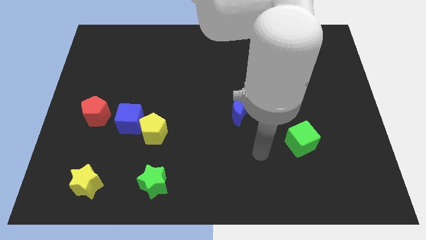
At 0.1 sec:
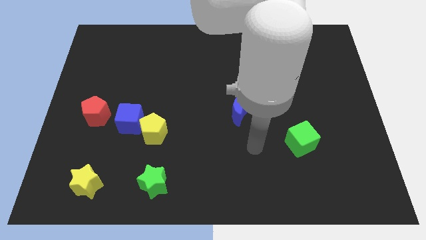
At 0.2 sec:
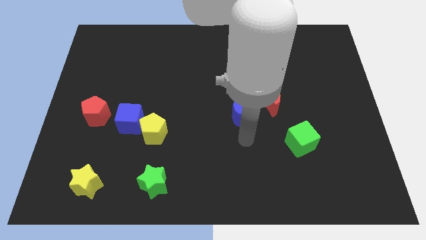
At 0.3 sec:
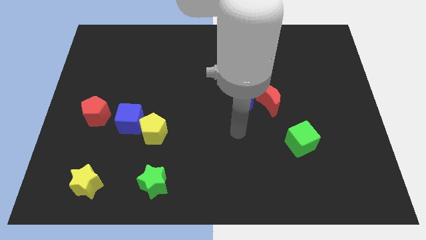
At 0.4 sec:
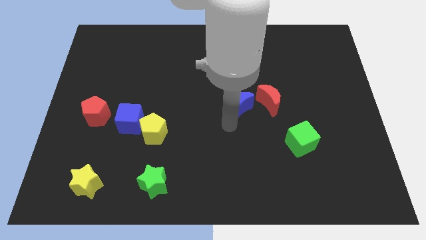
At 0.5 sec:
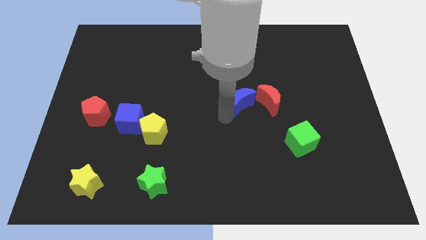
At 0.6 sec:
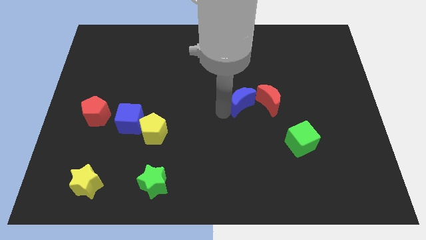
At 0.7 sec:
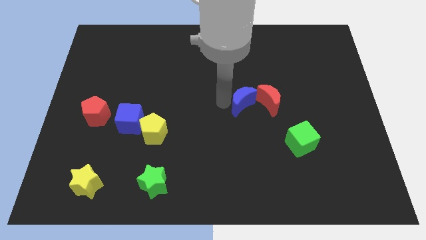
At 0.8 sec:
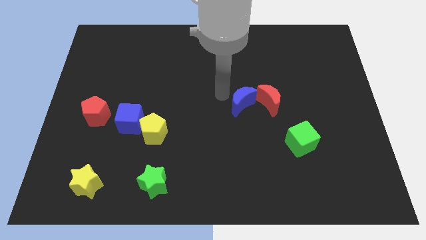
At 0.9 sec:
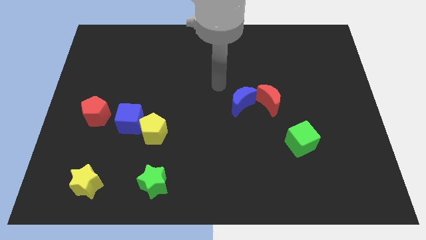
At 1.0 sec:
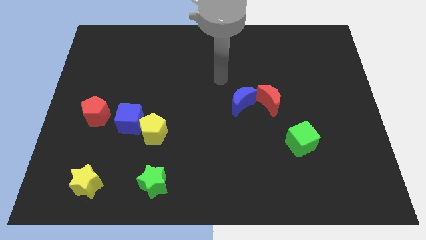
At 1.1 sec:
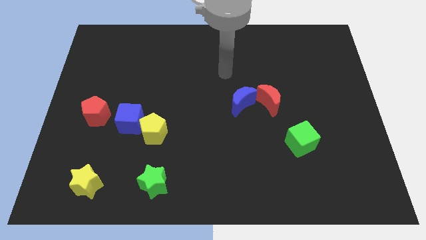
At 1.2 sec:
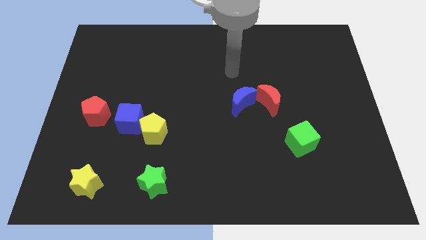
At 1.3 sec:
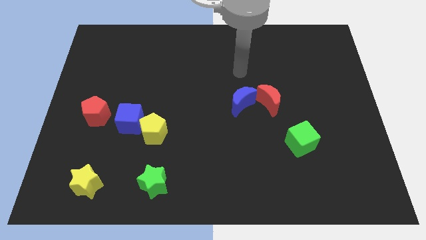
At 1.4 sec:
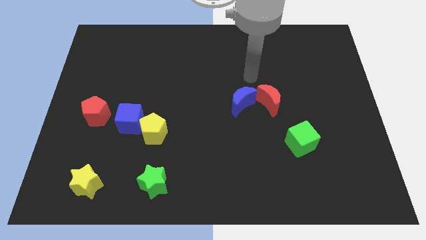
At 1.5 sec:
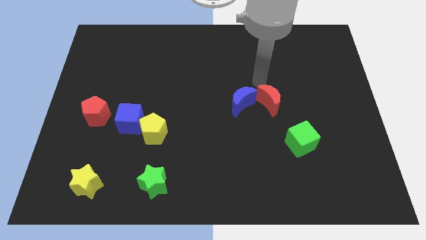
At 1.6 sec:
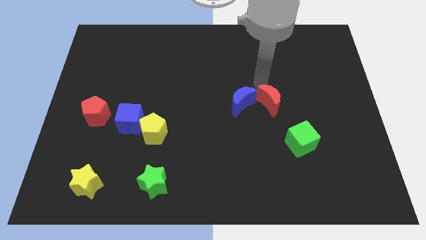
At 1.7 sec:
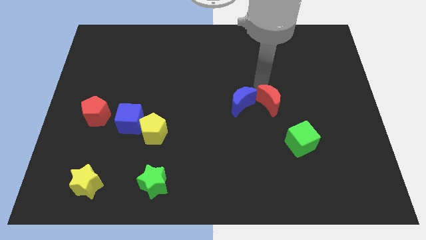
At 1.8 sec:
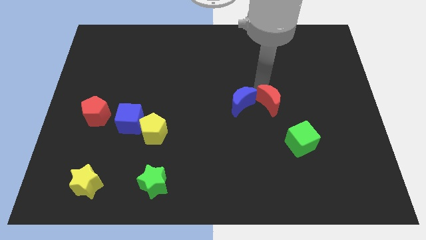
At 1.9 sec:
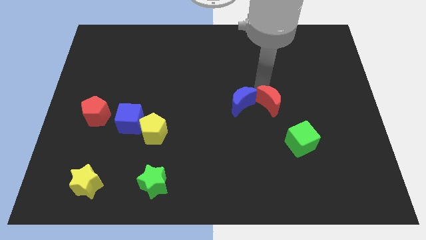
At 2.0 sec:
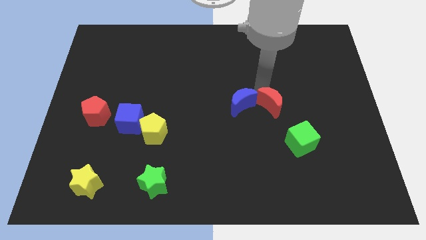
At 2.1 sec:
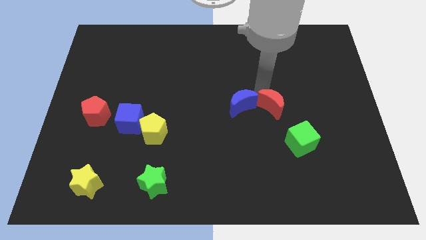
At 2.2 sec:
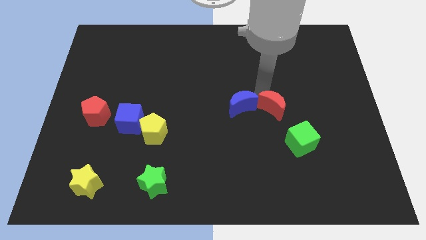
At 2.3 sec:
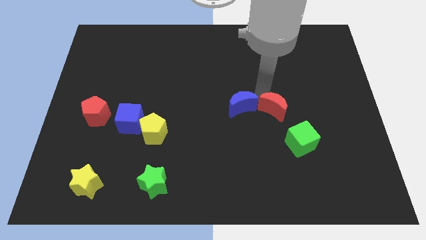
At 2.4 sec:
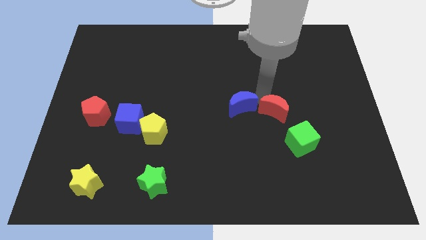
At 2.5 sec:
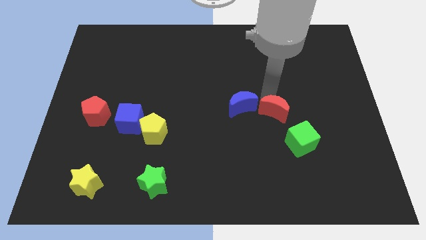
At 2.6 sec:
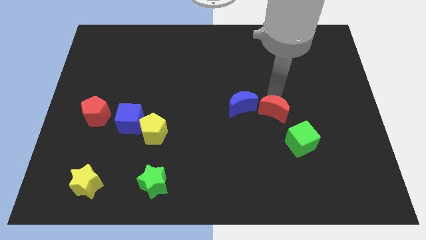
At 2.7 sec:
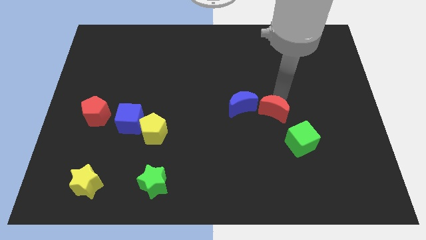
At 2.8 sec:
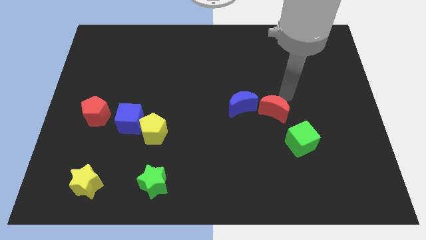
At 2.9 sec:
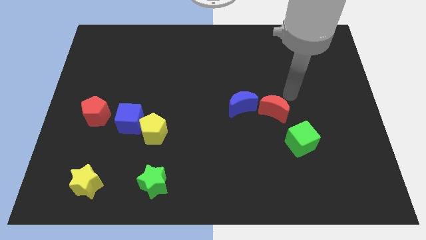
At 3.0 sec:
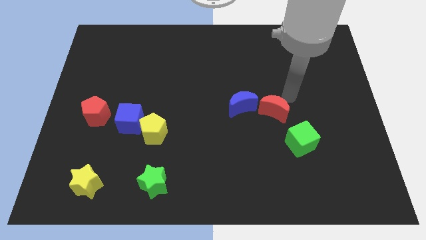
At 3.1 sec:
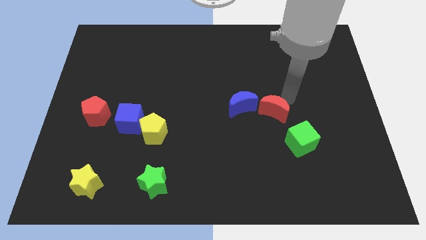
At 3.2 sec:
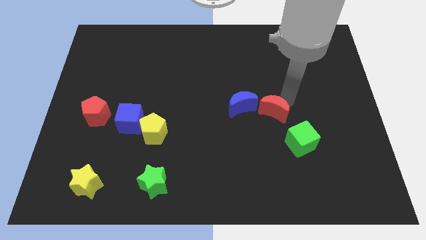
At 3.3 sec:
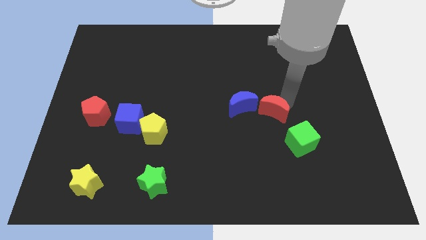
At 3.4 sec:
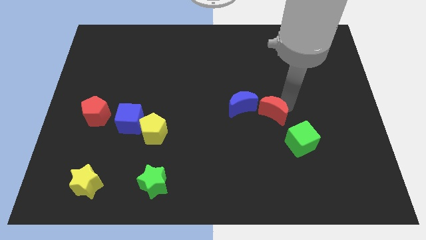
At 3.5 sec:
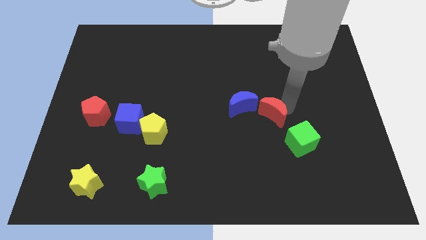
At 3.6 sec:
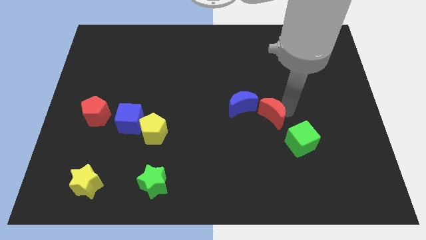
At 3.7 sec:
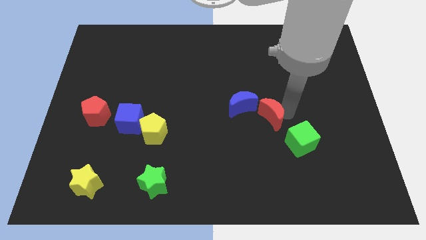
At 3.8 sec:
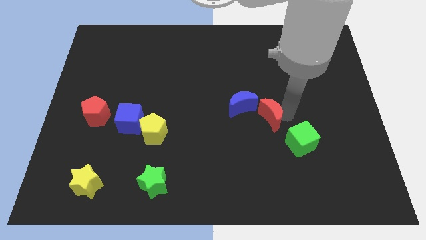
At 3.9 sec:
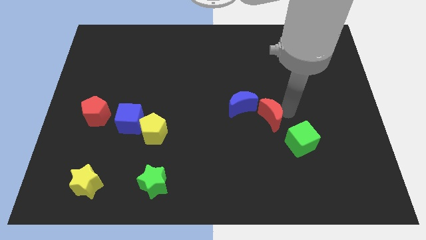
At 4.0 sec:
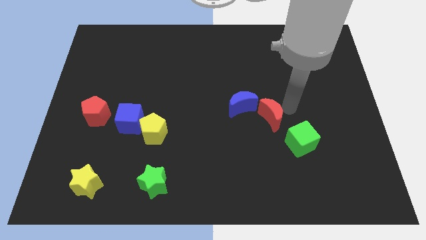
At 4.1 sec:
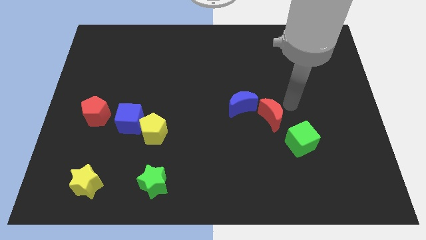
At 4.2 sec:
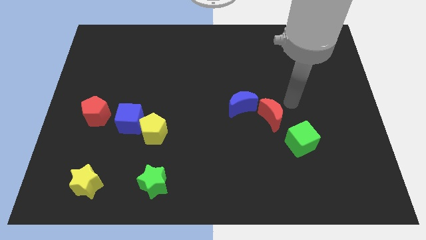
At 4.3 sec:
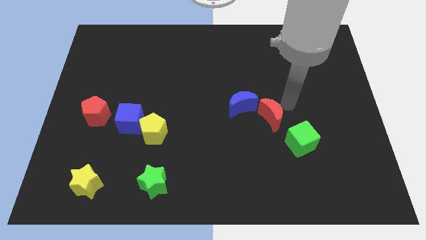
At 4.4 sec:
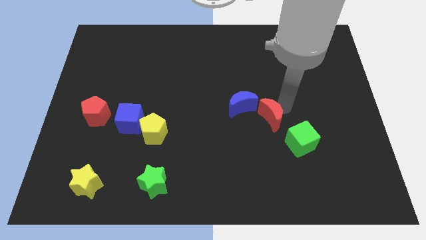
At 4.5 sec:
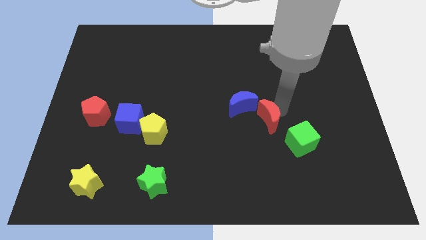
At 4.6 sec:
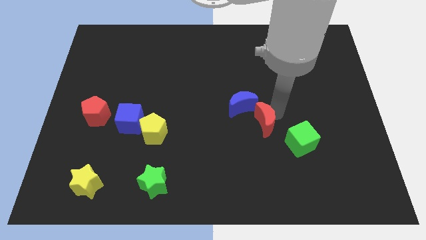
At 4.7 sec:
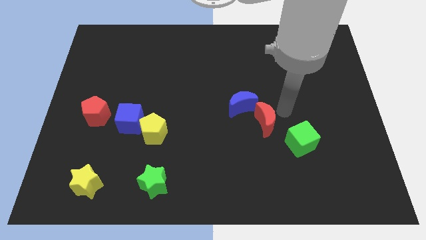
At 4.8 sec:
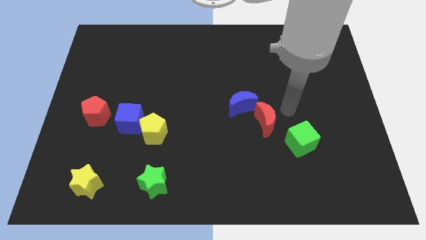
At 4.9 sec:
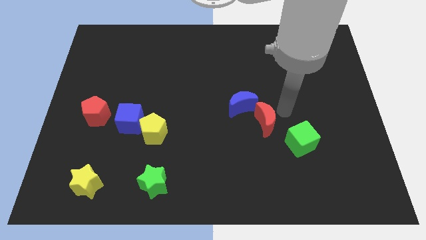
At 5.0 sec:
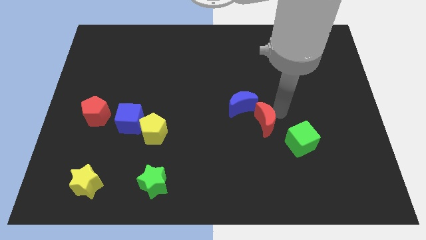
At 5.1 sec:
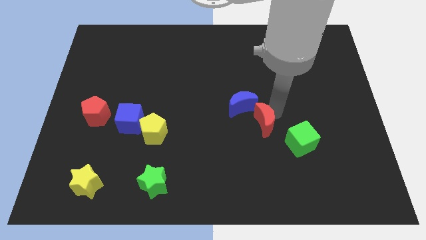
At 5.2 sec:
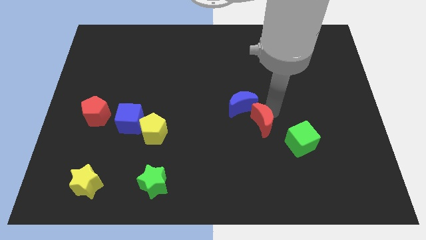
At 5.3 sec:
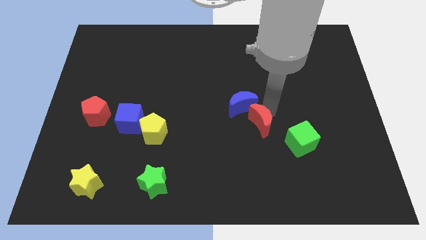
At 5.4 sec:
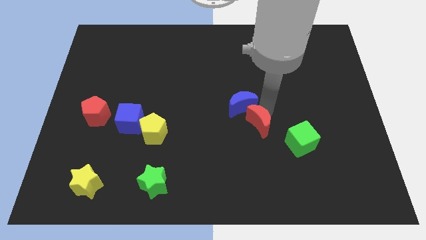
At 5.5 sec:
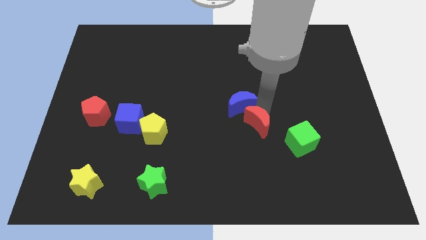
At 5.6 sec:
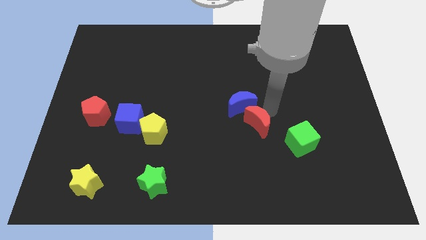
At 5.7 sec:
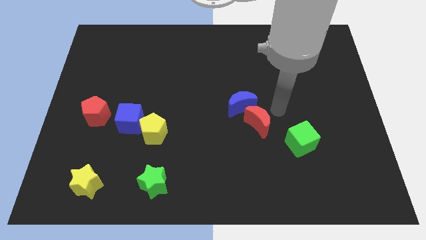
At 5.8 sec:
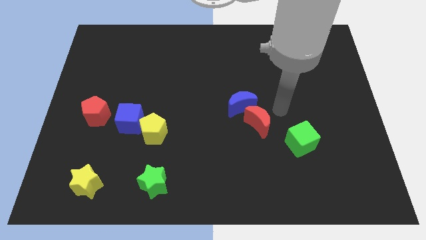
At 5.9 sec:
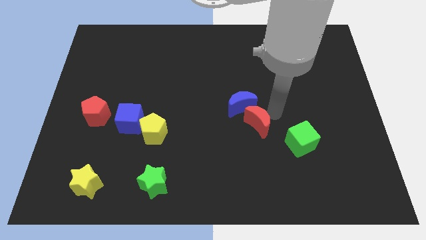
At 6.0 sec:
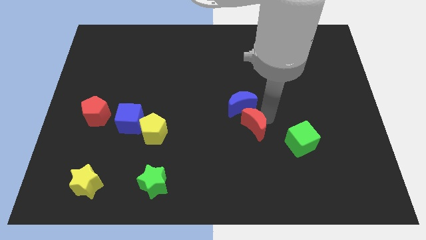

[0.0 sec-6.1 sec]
slightly slide the red moon down and to the left

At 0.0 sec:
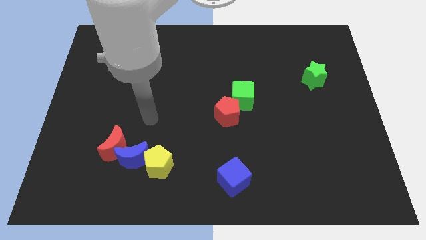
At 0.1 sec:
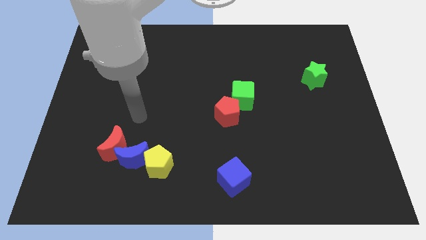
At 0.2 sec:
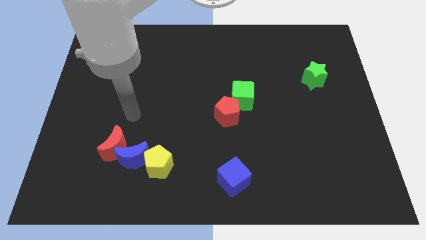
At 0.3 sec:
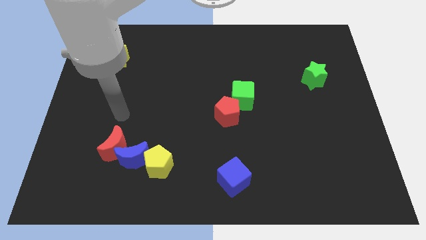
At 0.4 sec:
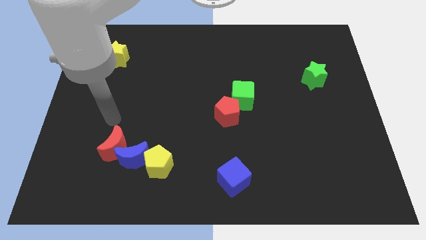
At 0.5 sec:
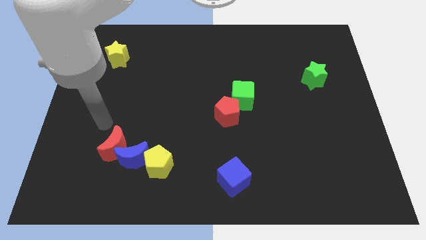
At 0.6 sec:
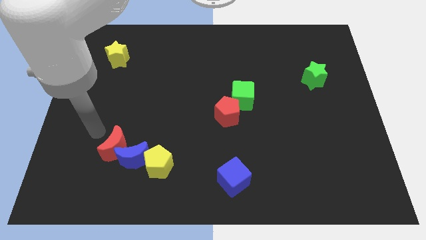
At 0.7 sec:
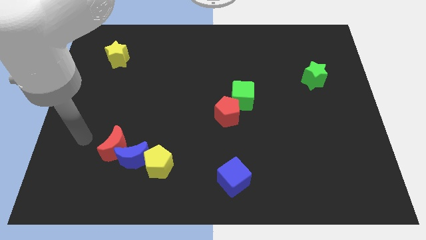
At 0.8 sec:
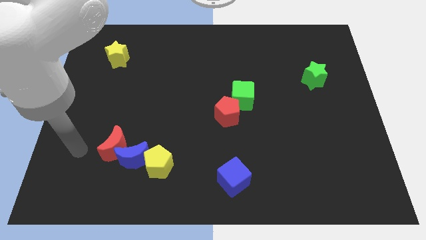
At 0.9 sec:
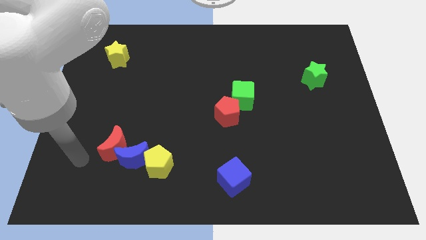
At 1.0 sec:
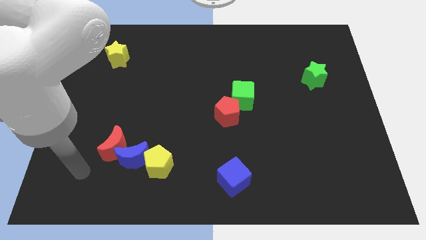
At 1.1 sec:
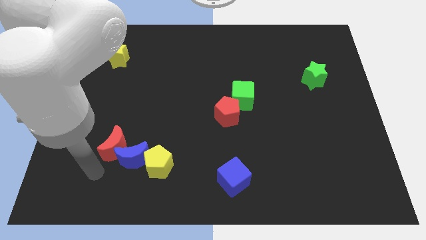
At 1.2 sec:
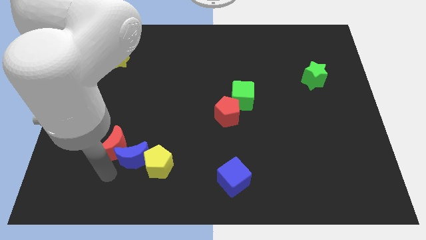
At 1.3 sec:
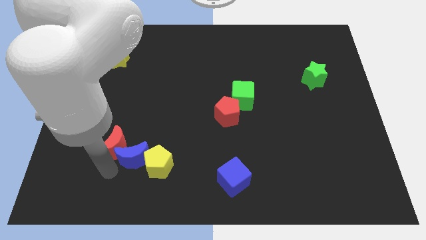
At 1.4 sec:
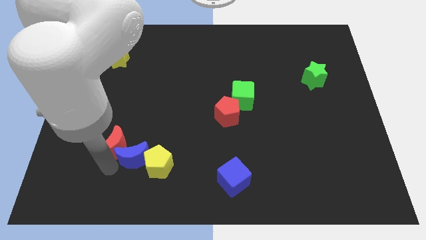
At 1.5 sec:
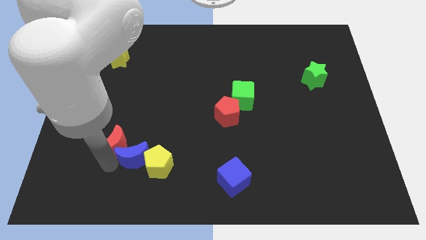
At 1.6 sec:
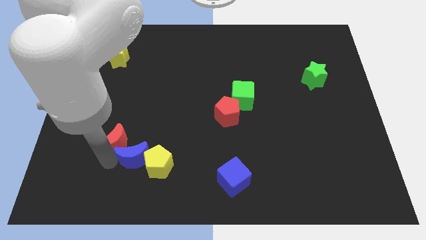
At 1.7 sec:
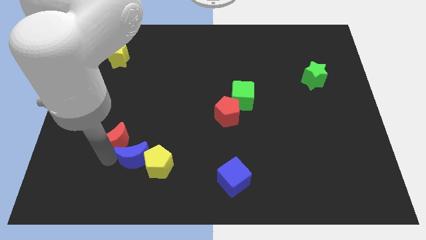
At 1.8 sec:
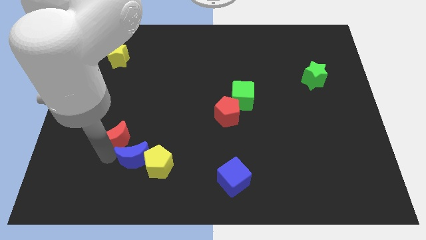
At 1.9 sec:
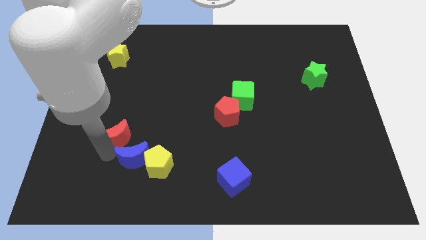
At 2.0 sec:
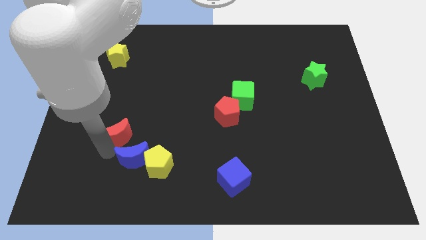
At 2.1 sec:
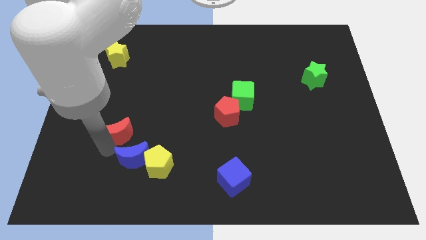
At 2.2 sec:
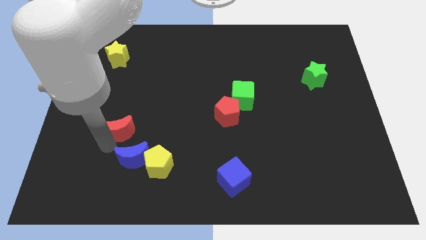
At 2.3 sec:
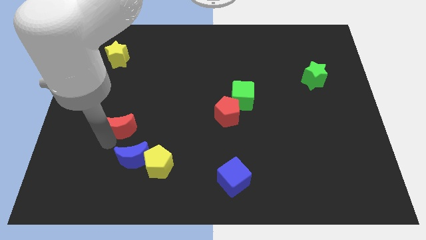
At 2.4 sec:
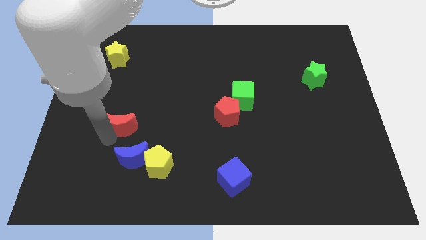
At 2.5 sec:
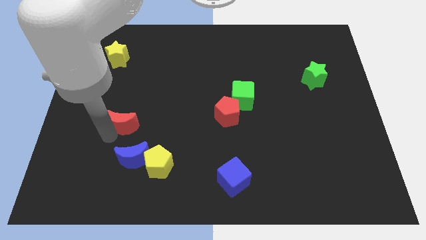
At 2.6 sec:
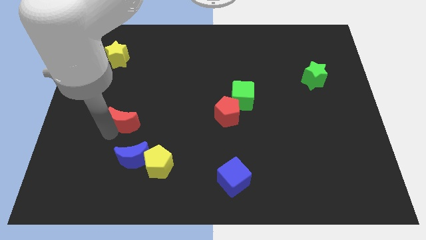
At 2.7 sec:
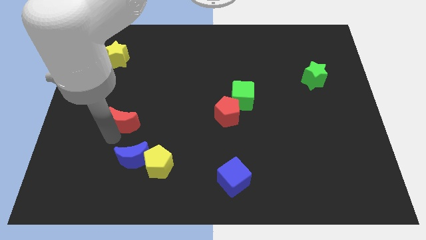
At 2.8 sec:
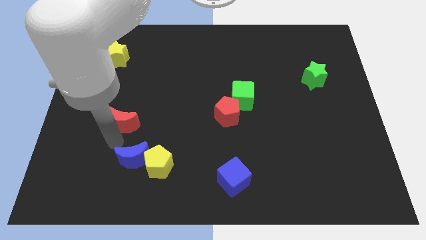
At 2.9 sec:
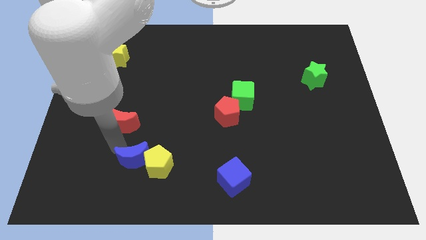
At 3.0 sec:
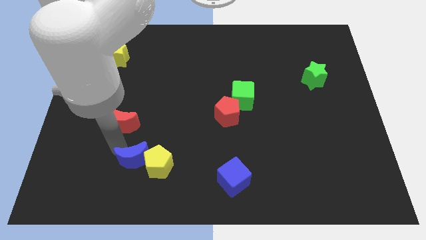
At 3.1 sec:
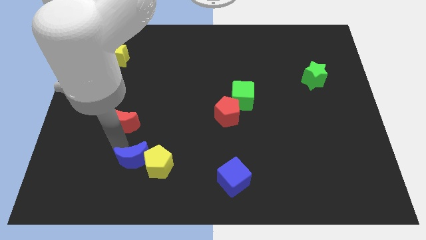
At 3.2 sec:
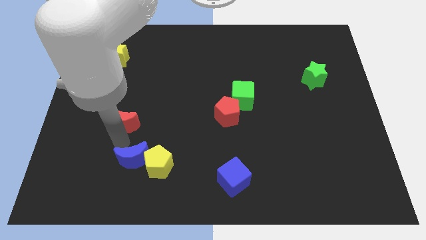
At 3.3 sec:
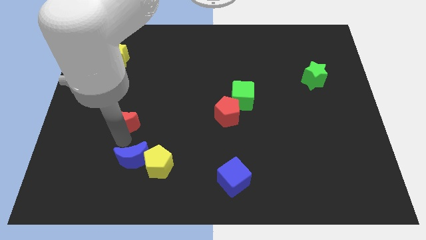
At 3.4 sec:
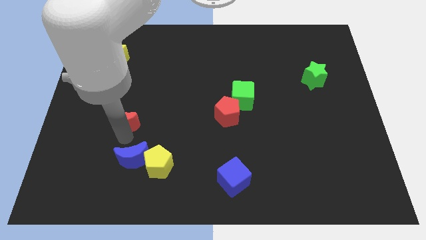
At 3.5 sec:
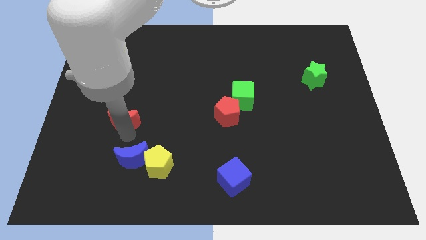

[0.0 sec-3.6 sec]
push the red moon upwards somewhat
